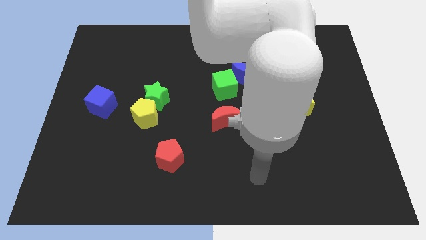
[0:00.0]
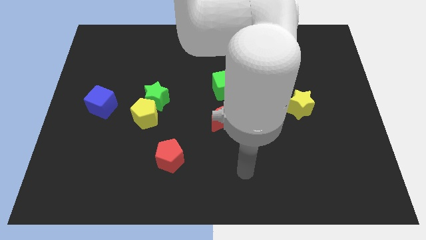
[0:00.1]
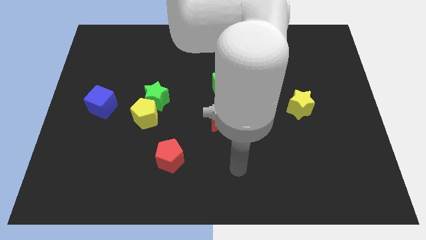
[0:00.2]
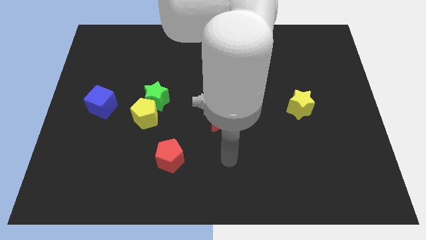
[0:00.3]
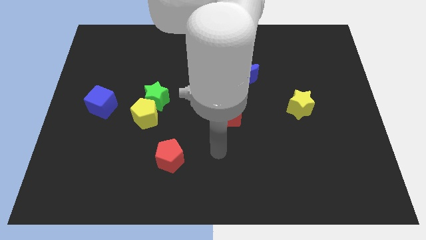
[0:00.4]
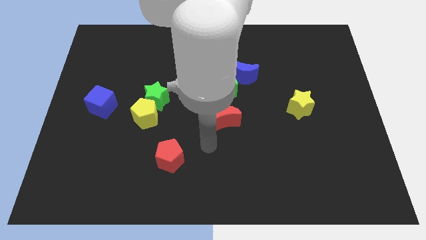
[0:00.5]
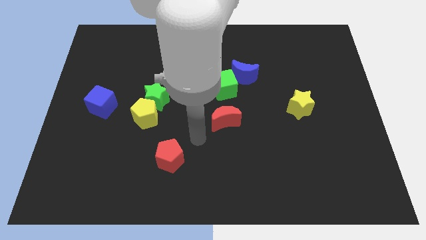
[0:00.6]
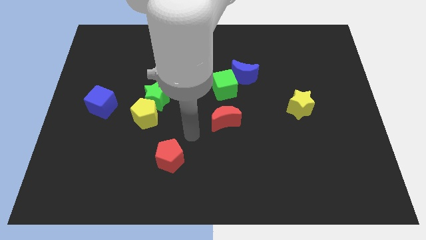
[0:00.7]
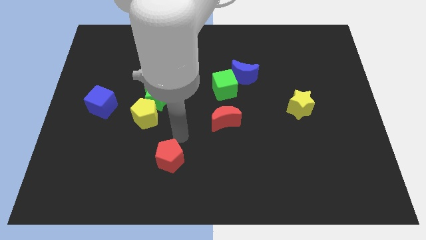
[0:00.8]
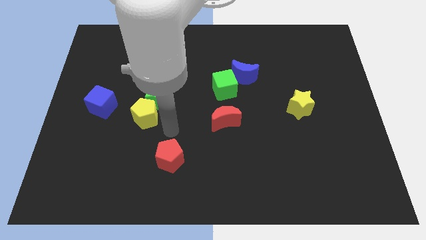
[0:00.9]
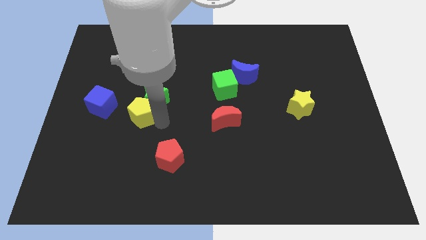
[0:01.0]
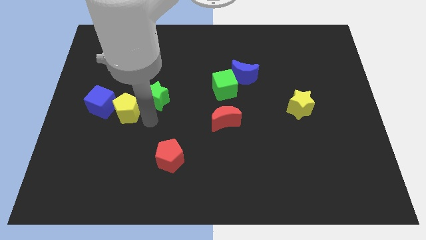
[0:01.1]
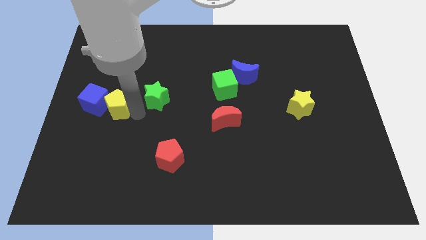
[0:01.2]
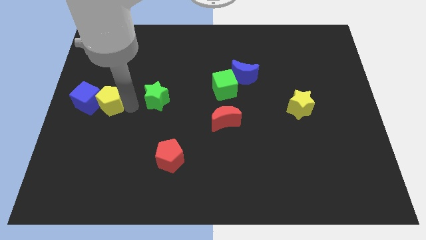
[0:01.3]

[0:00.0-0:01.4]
pull the green star apart from the yellow pentagon

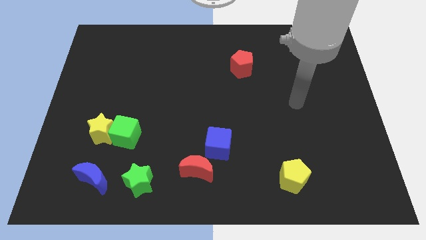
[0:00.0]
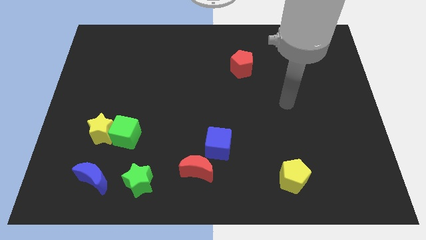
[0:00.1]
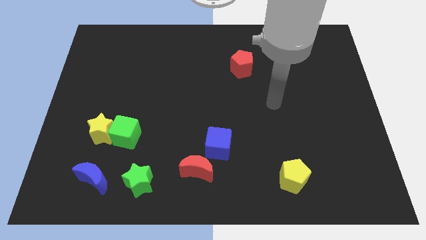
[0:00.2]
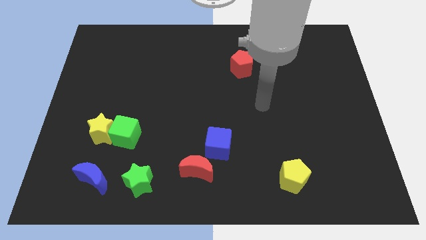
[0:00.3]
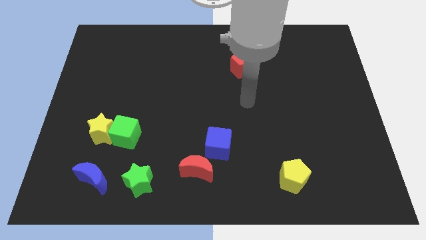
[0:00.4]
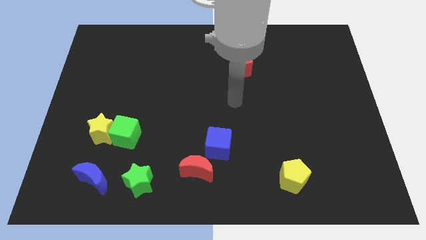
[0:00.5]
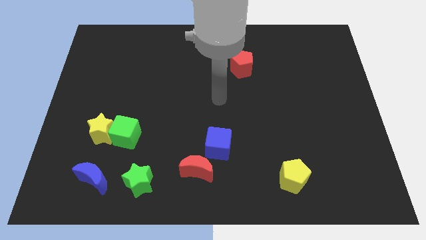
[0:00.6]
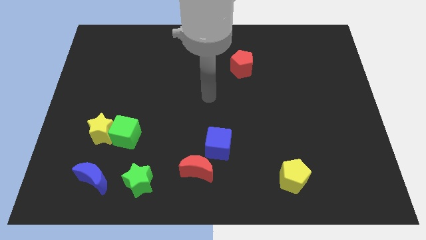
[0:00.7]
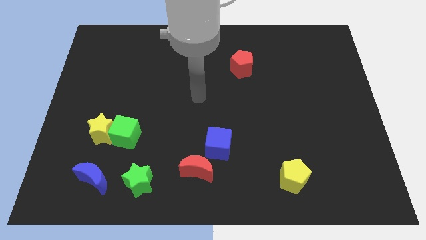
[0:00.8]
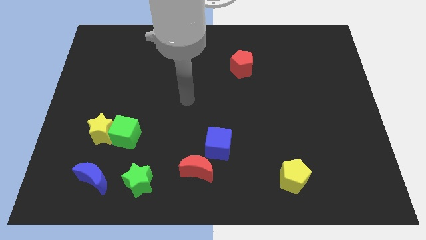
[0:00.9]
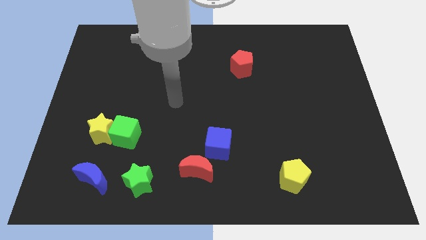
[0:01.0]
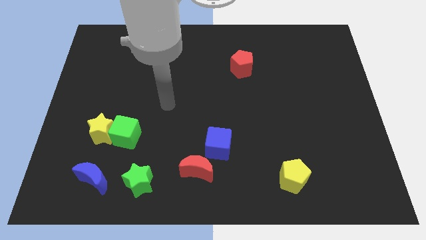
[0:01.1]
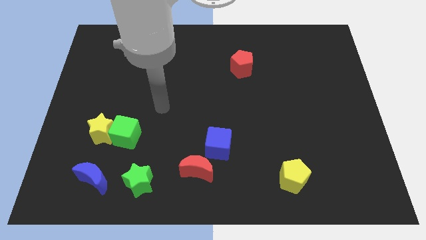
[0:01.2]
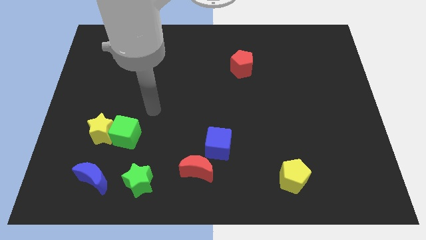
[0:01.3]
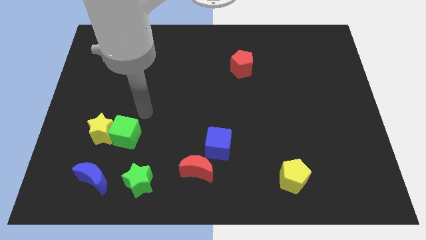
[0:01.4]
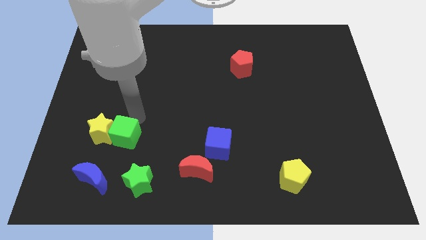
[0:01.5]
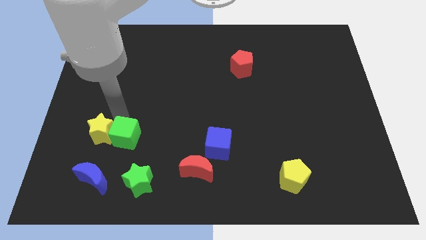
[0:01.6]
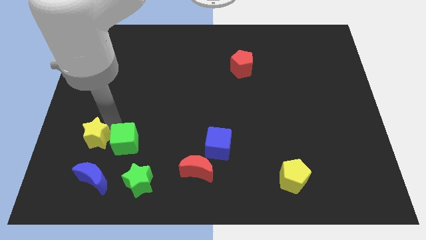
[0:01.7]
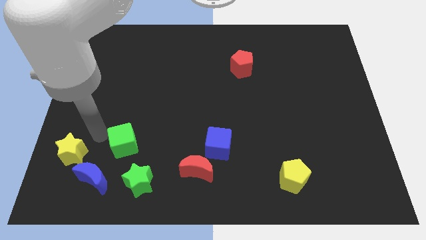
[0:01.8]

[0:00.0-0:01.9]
pull the green cube apart from the yellow star

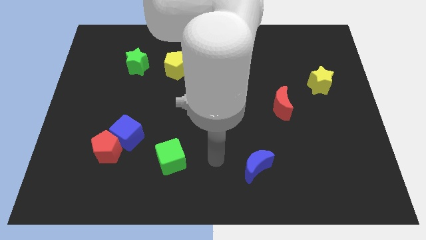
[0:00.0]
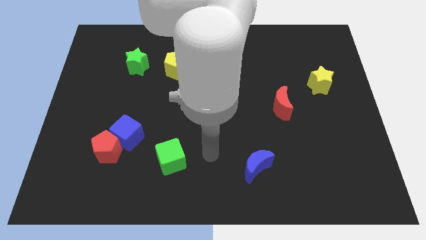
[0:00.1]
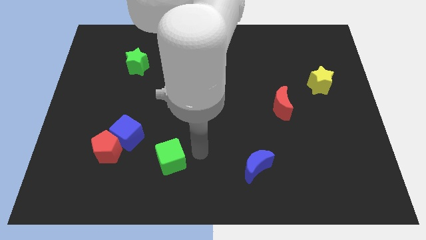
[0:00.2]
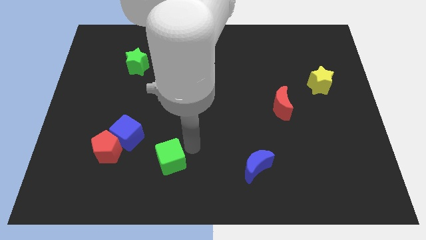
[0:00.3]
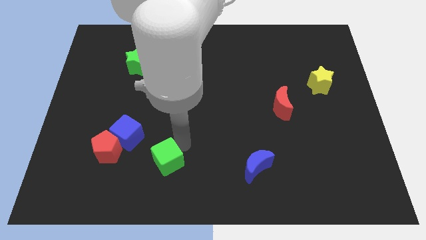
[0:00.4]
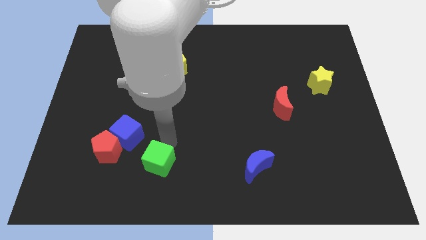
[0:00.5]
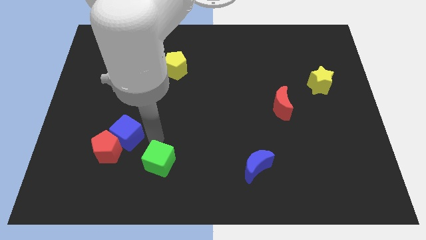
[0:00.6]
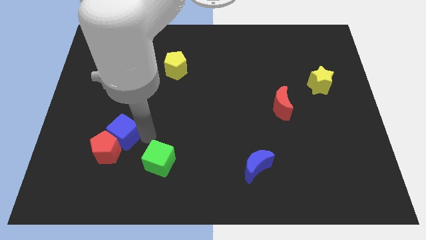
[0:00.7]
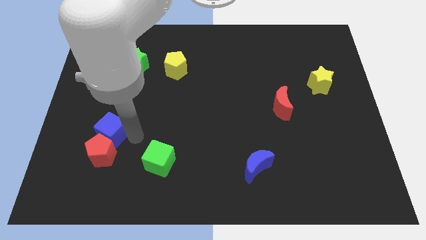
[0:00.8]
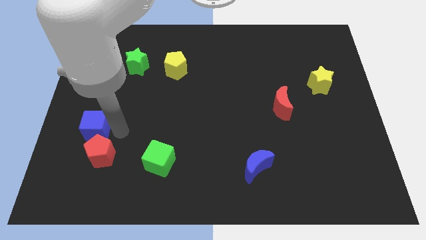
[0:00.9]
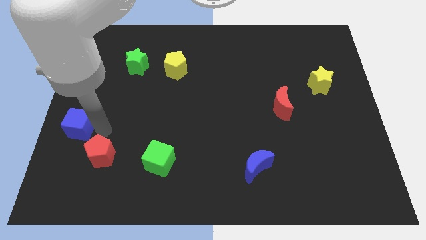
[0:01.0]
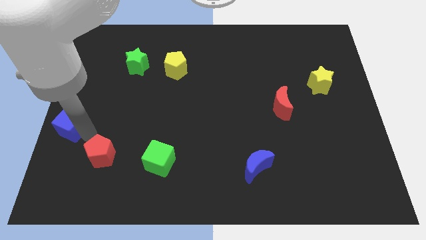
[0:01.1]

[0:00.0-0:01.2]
pull the red pentagon apart from the blue cube

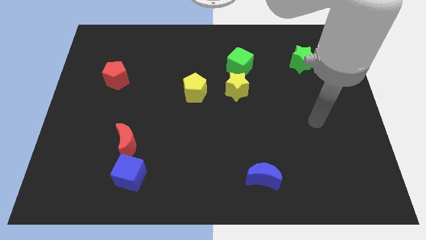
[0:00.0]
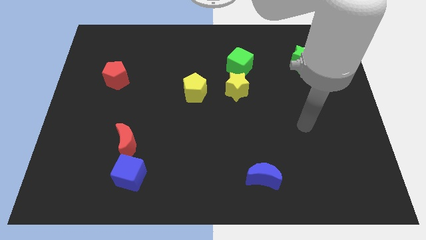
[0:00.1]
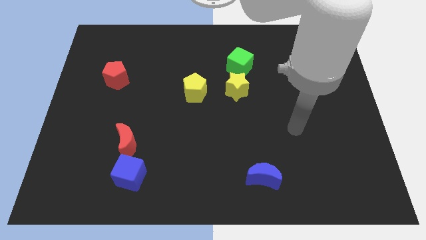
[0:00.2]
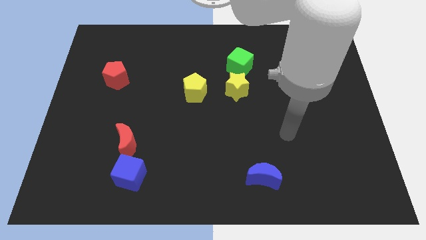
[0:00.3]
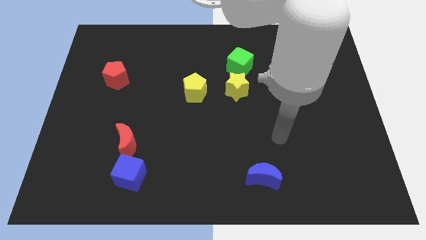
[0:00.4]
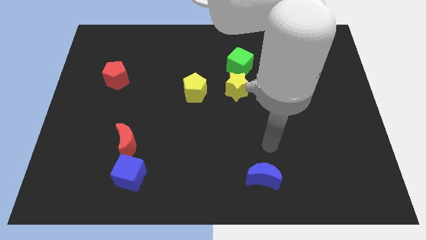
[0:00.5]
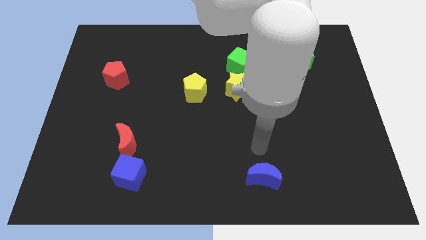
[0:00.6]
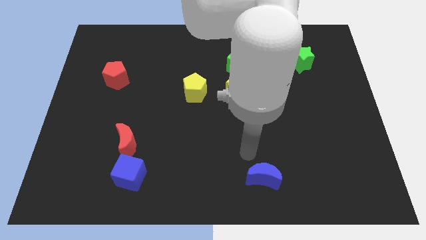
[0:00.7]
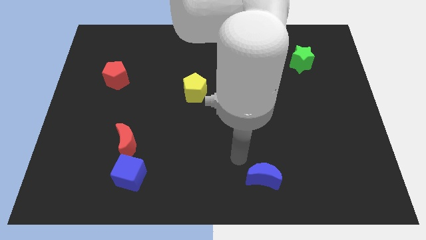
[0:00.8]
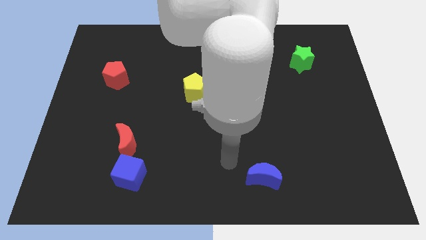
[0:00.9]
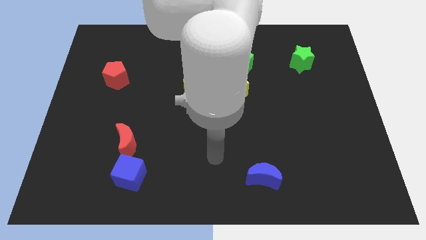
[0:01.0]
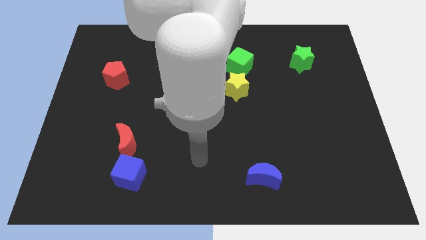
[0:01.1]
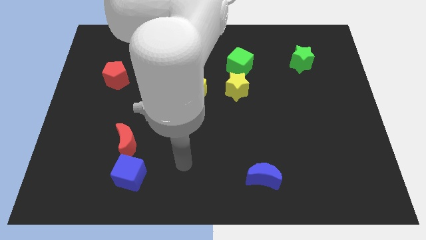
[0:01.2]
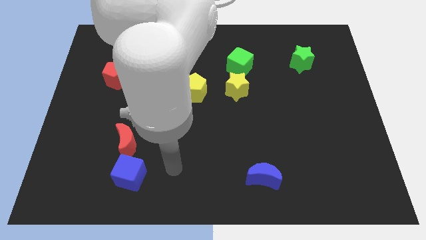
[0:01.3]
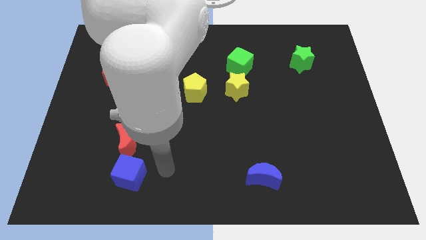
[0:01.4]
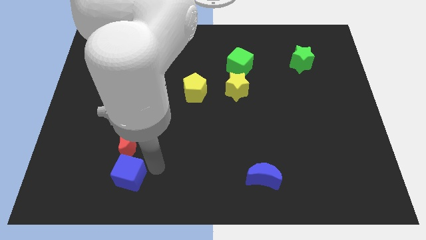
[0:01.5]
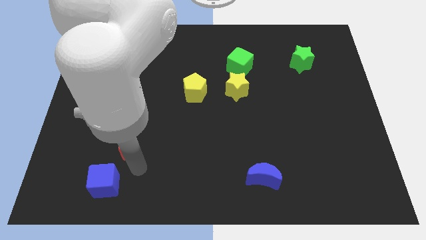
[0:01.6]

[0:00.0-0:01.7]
move the red moon away from the blue cube

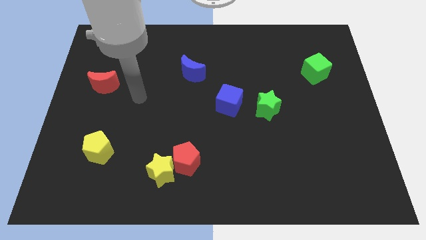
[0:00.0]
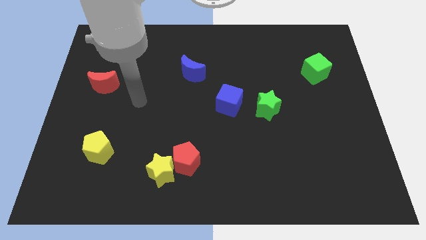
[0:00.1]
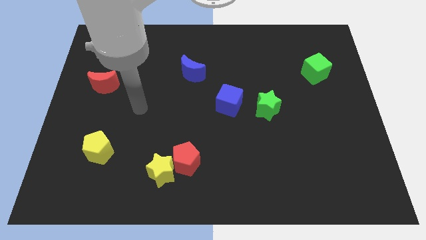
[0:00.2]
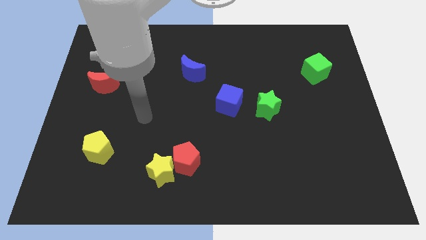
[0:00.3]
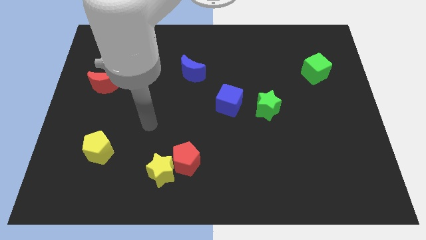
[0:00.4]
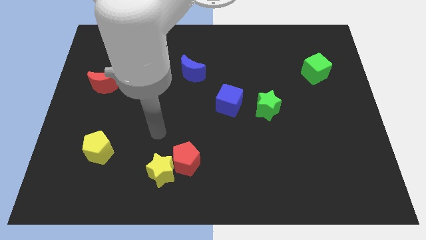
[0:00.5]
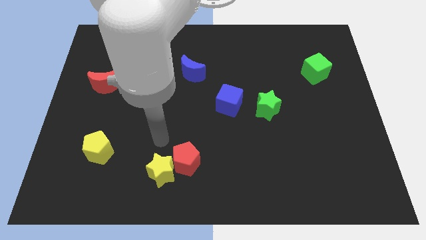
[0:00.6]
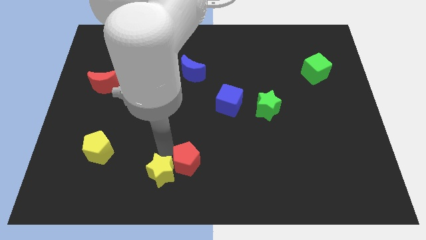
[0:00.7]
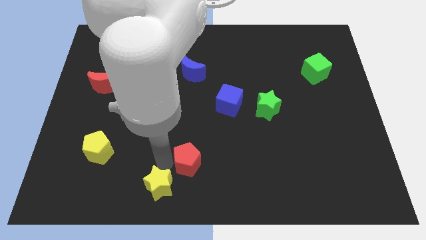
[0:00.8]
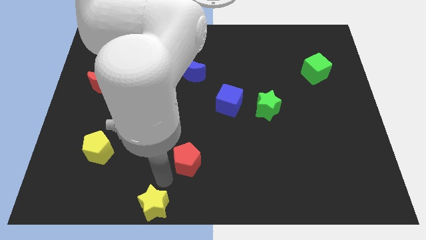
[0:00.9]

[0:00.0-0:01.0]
move the red pentagon away from the yellow star

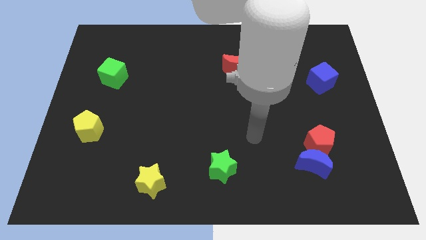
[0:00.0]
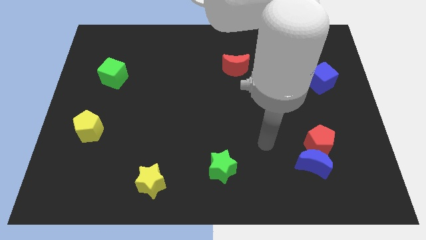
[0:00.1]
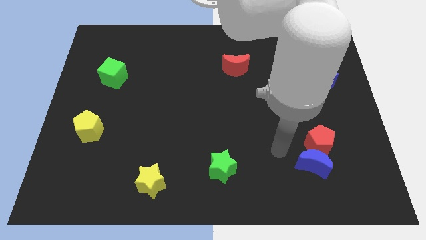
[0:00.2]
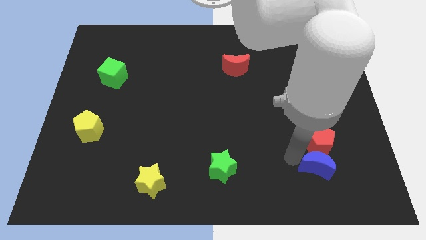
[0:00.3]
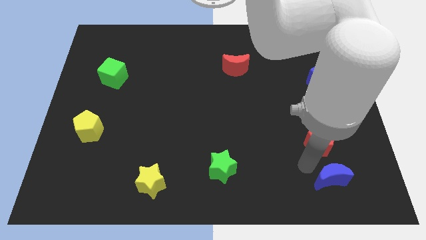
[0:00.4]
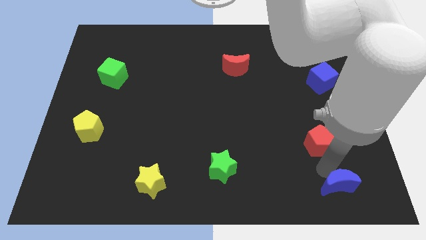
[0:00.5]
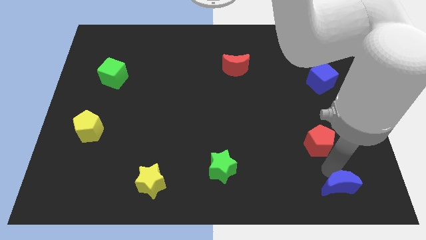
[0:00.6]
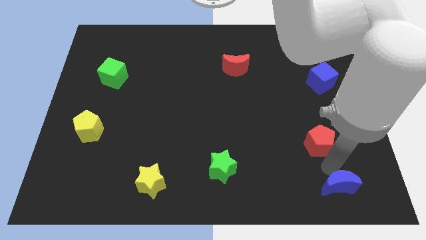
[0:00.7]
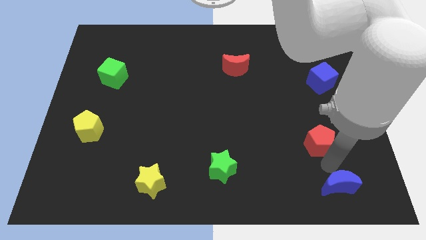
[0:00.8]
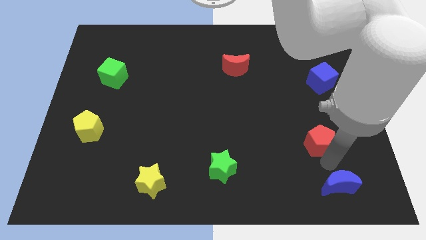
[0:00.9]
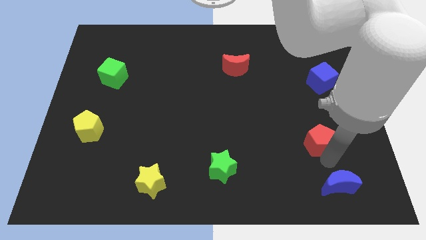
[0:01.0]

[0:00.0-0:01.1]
pull the red pentagon apart from the blue moon

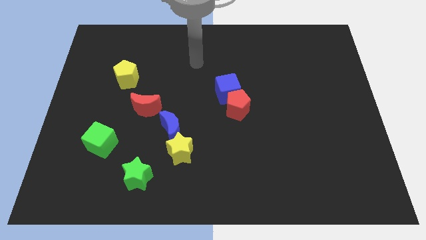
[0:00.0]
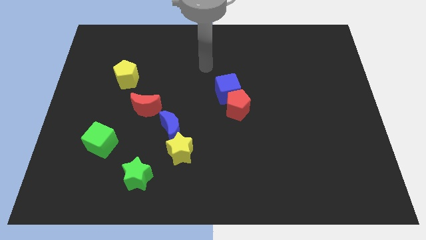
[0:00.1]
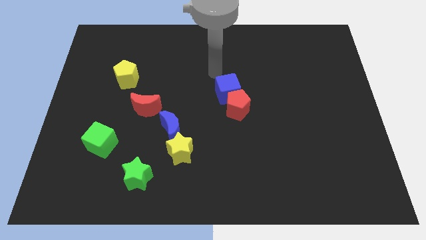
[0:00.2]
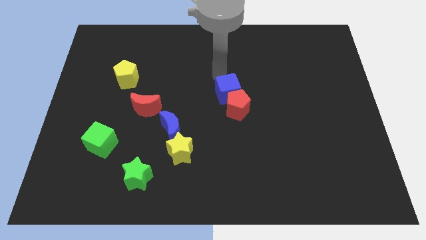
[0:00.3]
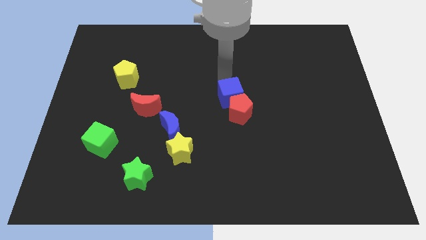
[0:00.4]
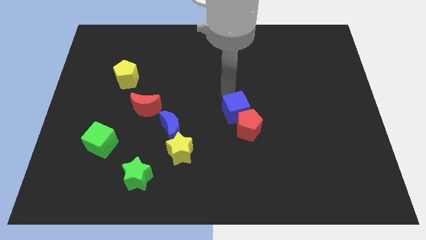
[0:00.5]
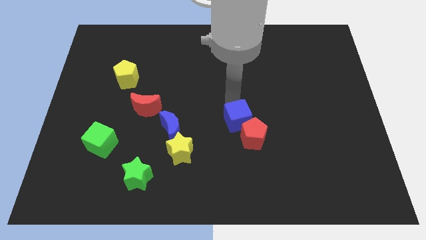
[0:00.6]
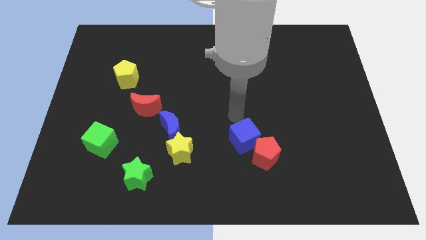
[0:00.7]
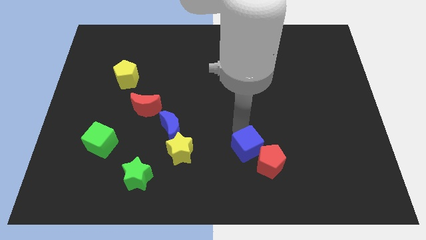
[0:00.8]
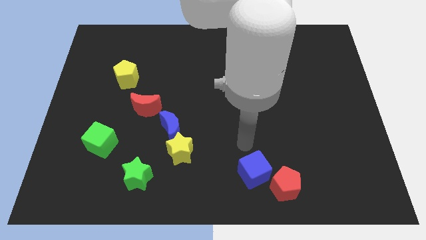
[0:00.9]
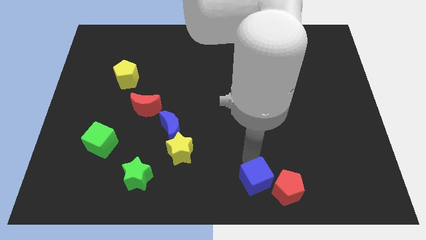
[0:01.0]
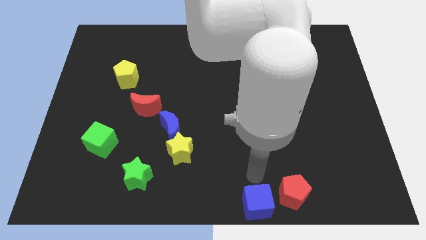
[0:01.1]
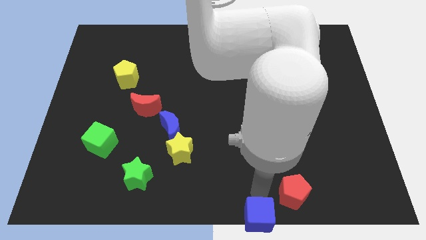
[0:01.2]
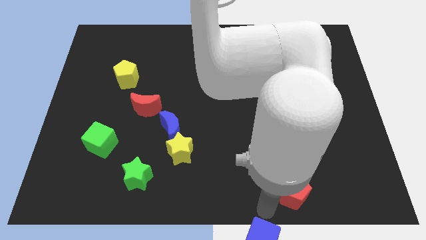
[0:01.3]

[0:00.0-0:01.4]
separate the red pentagon from the blue cube
